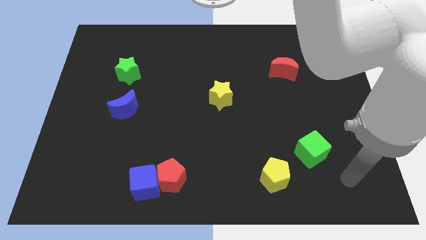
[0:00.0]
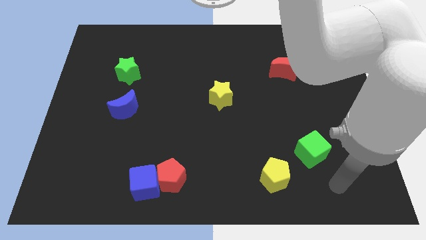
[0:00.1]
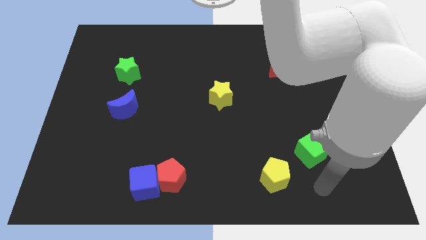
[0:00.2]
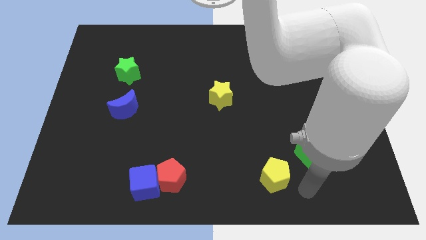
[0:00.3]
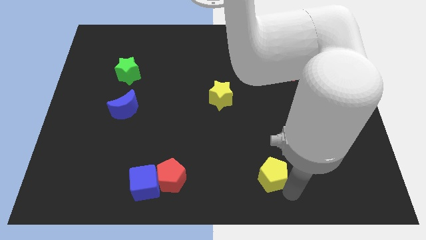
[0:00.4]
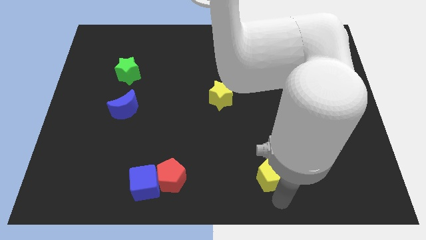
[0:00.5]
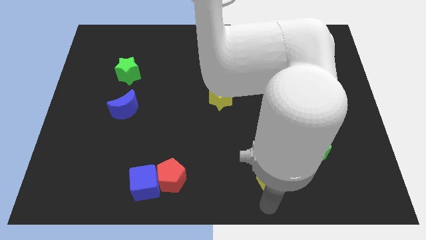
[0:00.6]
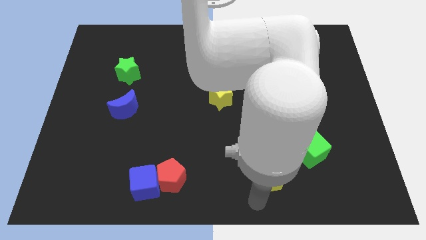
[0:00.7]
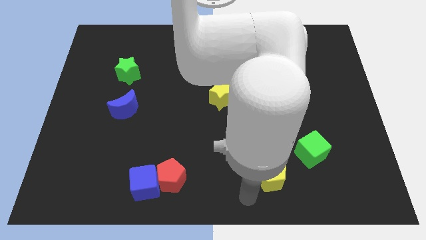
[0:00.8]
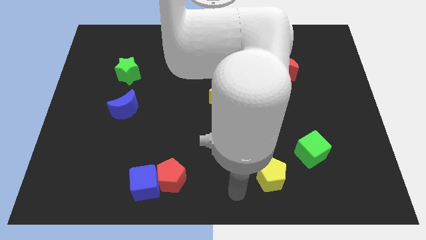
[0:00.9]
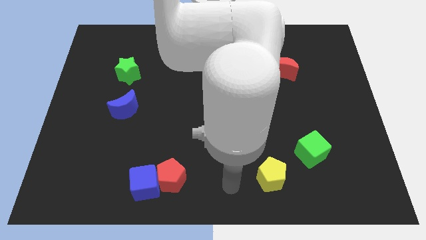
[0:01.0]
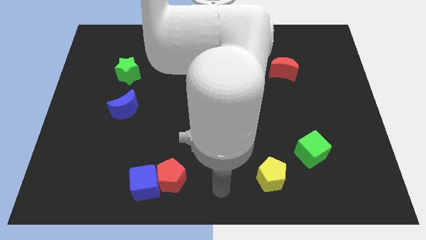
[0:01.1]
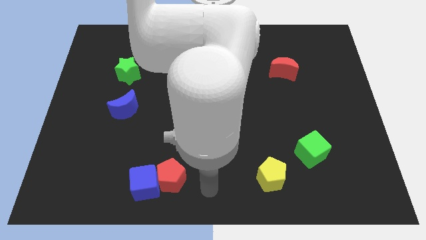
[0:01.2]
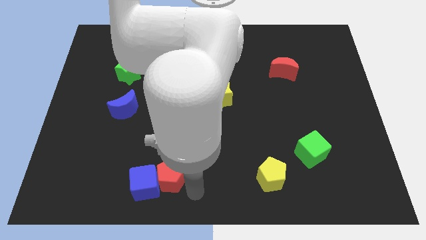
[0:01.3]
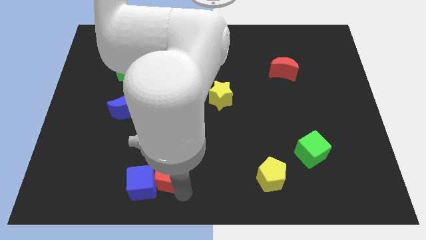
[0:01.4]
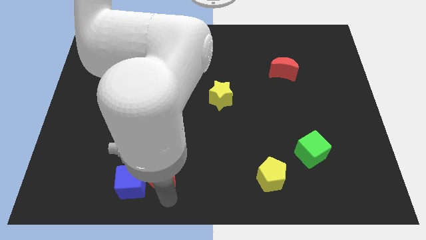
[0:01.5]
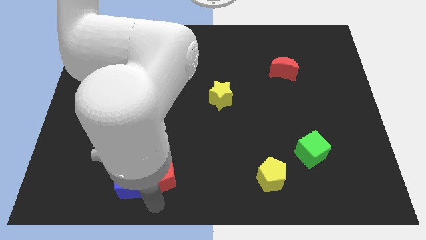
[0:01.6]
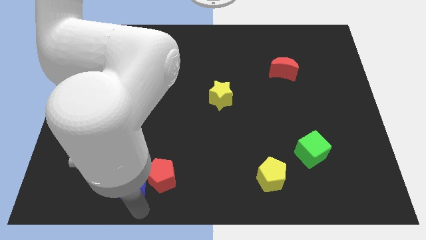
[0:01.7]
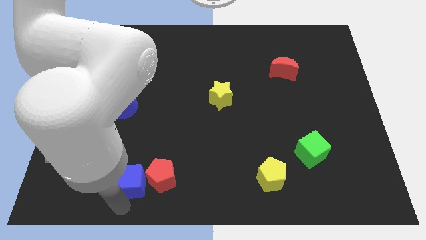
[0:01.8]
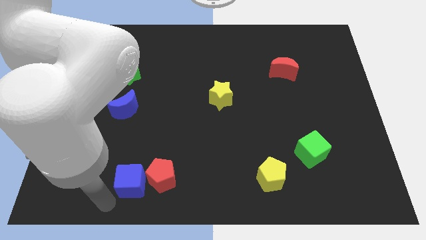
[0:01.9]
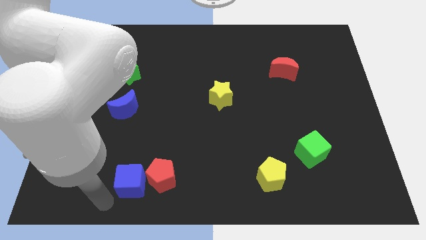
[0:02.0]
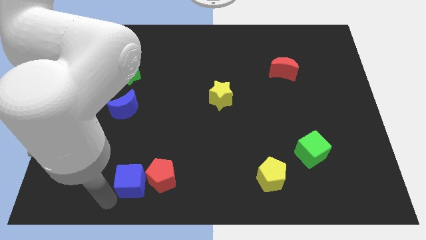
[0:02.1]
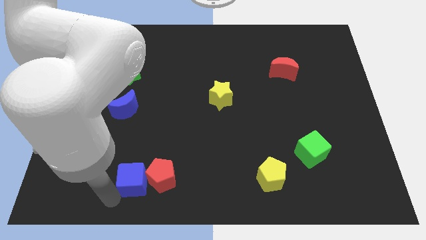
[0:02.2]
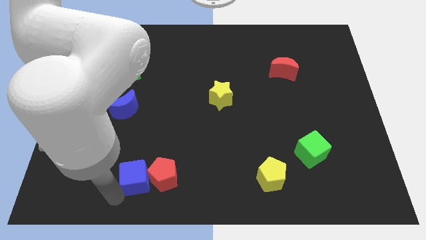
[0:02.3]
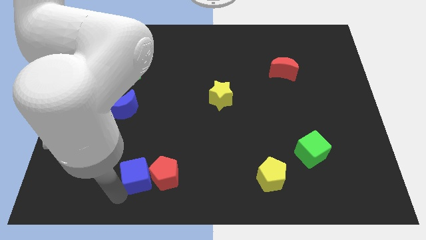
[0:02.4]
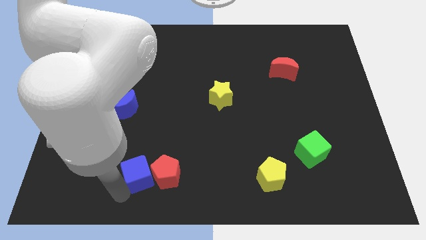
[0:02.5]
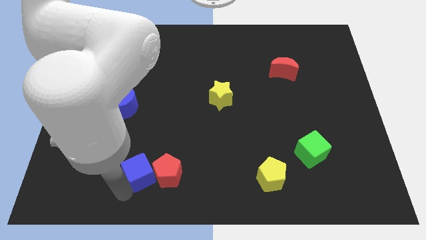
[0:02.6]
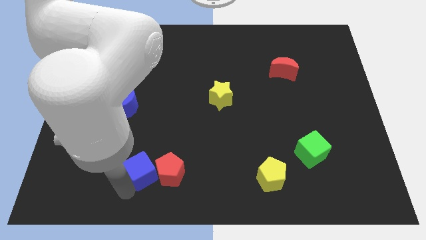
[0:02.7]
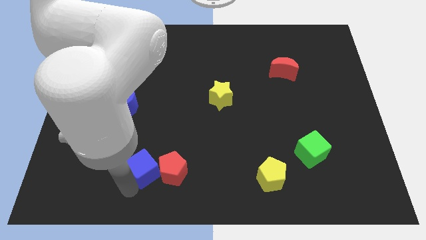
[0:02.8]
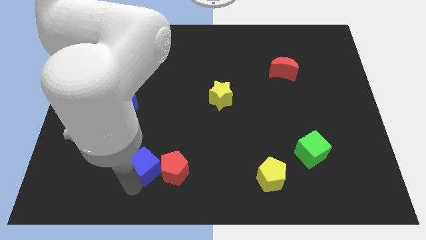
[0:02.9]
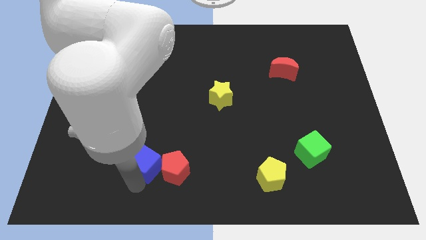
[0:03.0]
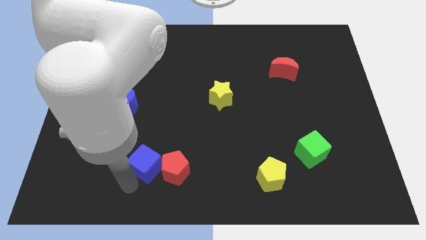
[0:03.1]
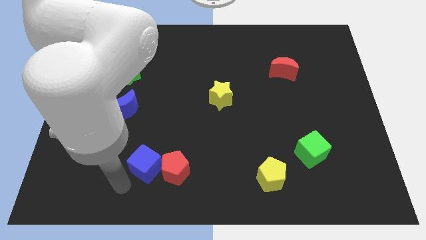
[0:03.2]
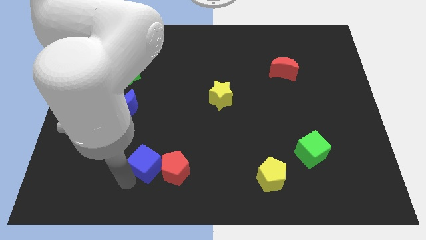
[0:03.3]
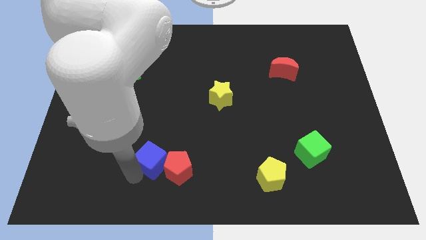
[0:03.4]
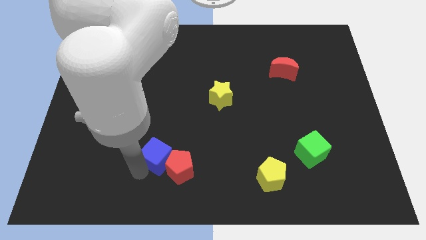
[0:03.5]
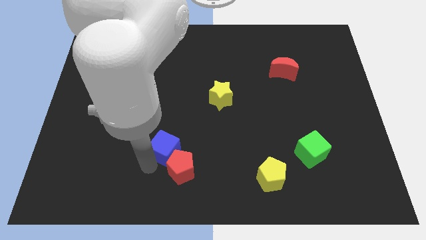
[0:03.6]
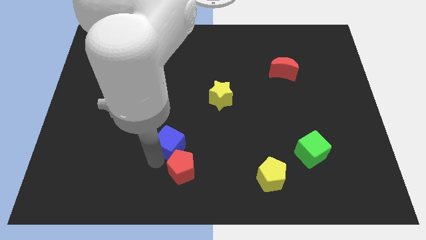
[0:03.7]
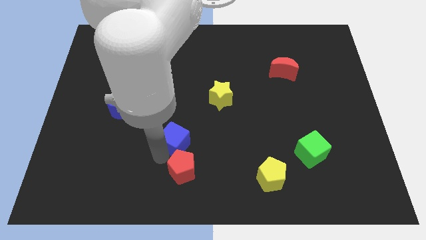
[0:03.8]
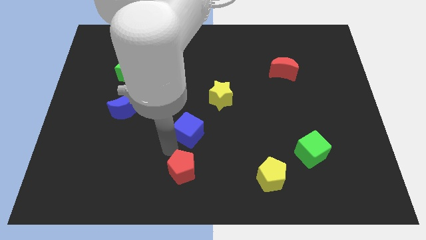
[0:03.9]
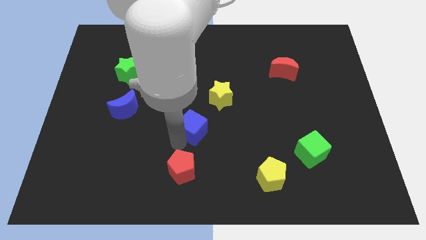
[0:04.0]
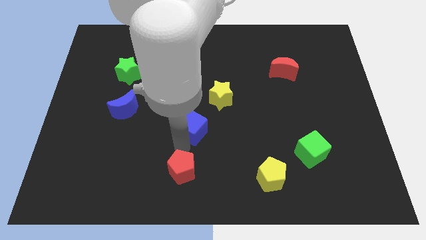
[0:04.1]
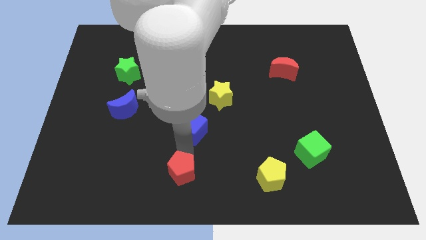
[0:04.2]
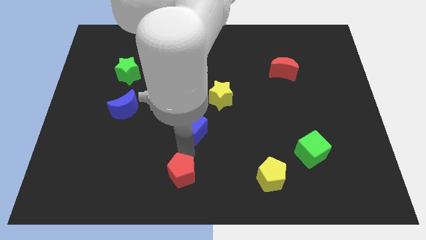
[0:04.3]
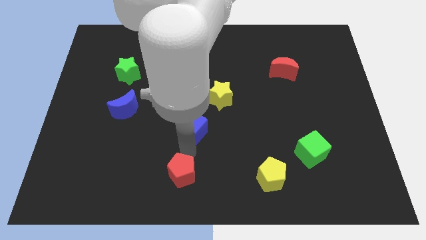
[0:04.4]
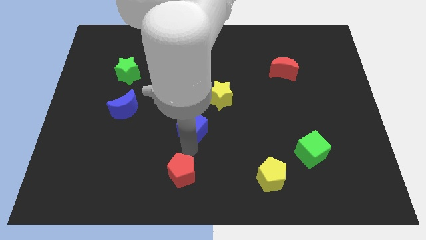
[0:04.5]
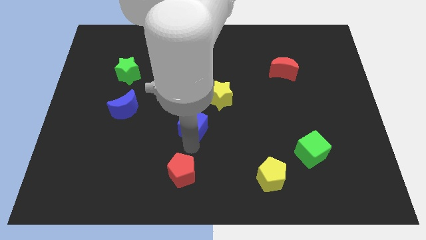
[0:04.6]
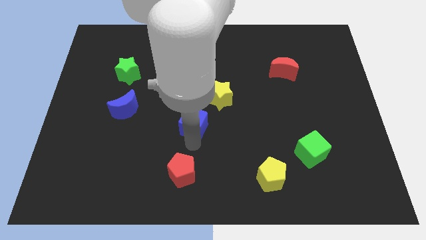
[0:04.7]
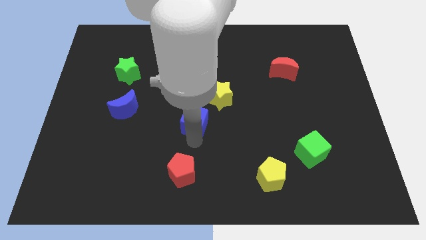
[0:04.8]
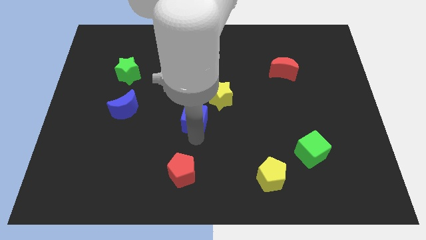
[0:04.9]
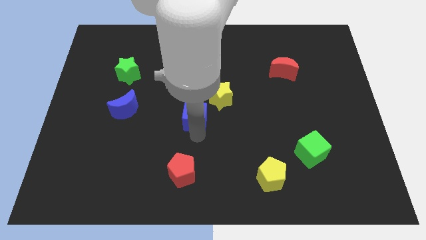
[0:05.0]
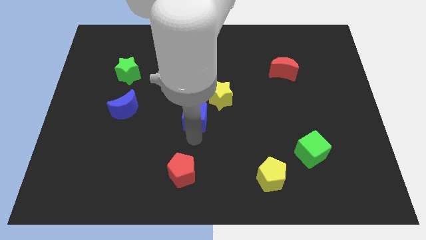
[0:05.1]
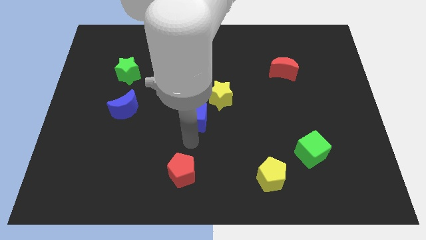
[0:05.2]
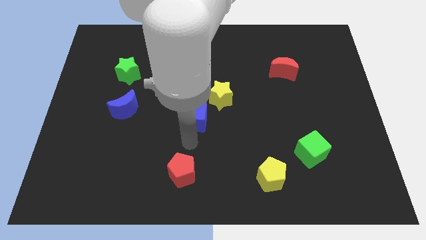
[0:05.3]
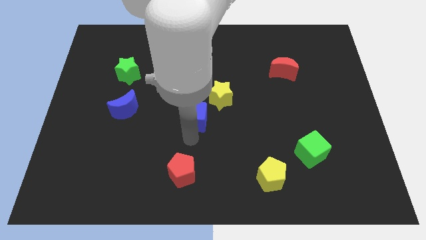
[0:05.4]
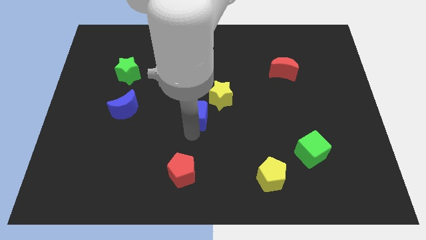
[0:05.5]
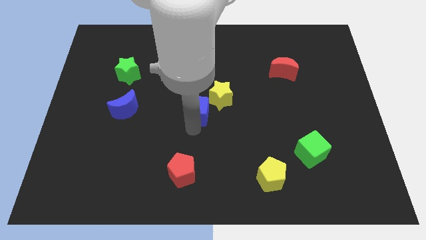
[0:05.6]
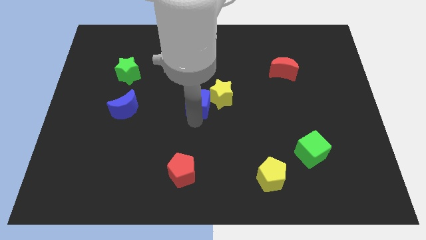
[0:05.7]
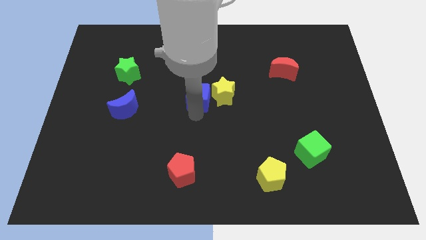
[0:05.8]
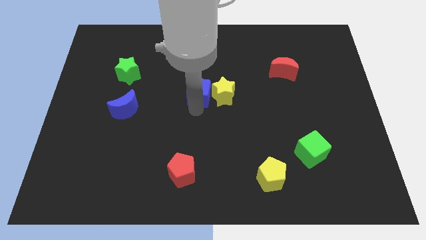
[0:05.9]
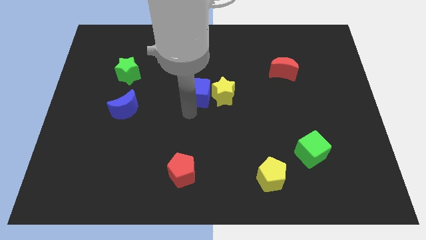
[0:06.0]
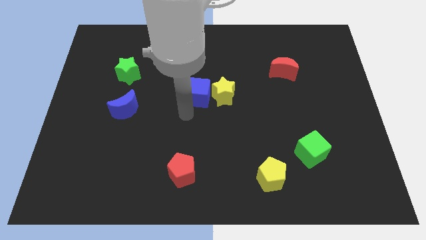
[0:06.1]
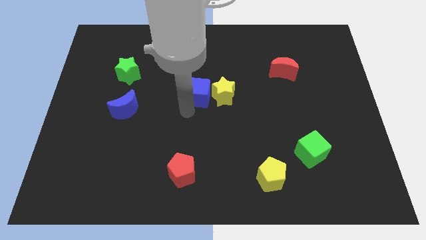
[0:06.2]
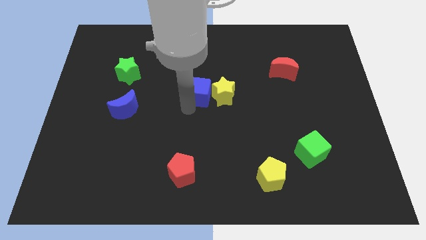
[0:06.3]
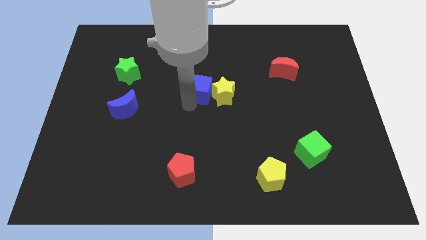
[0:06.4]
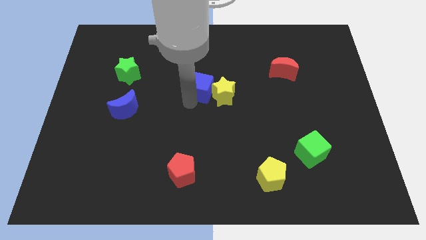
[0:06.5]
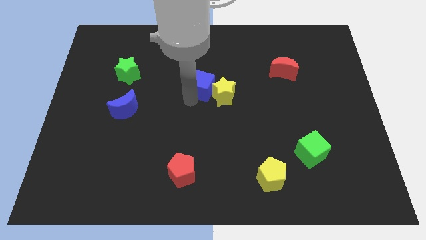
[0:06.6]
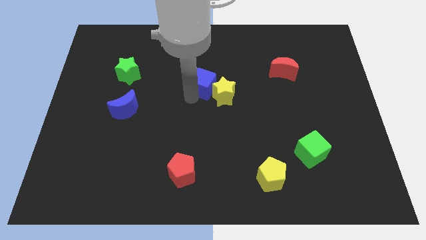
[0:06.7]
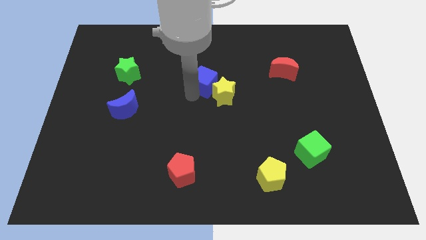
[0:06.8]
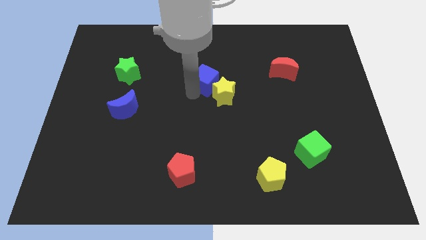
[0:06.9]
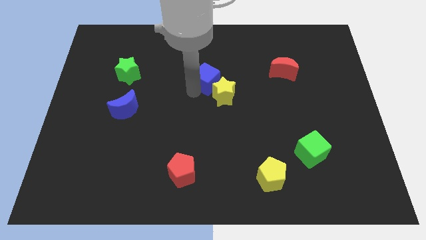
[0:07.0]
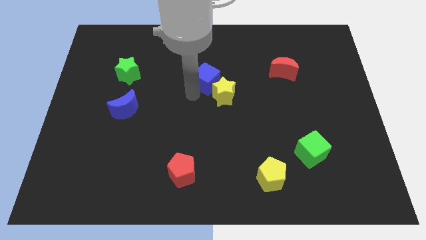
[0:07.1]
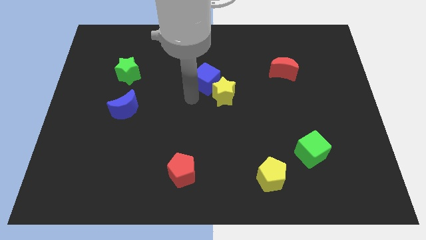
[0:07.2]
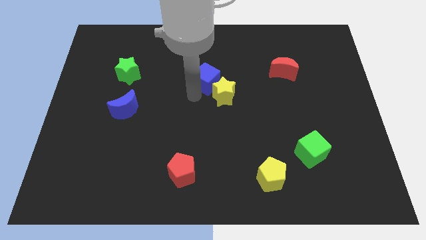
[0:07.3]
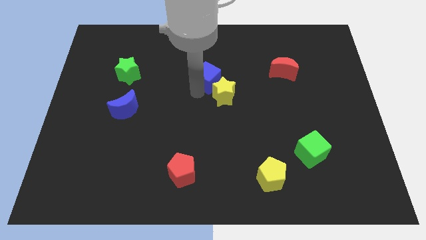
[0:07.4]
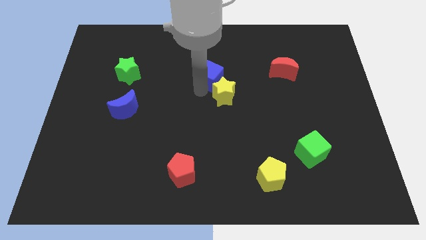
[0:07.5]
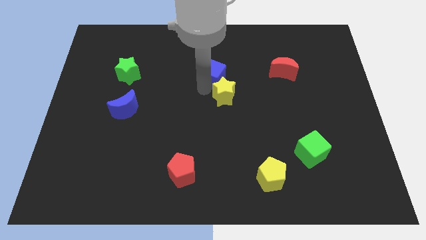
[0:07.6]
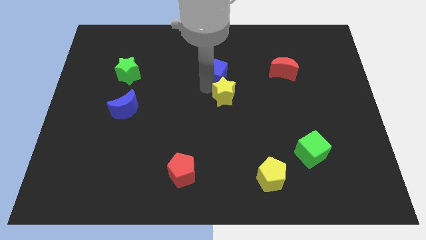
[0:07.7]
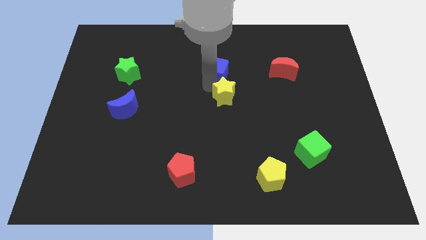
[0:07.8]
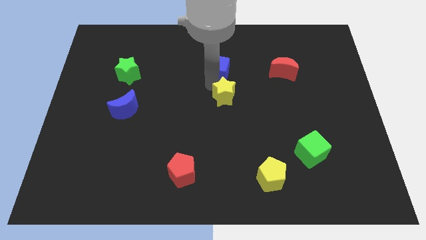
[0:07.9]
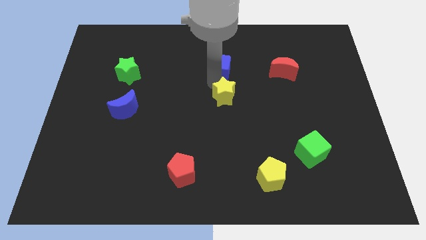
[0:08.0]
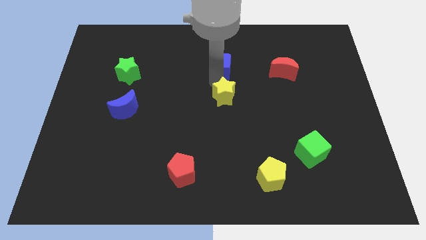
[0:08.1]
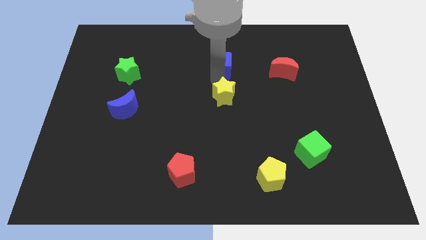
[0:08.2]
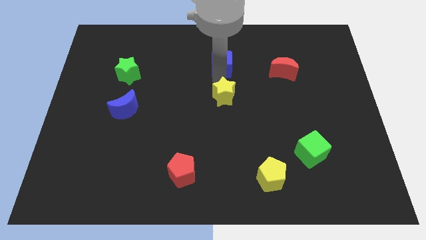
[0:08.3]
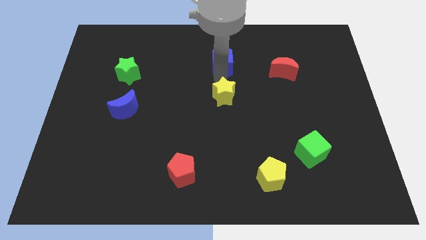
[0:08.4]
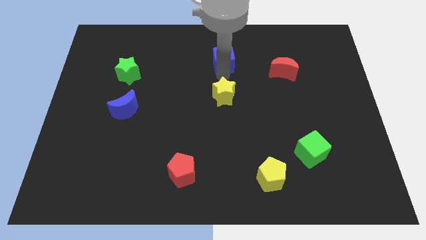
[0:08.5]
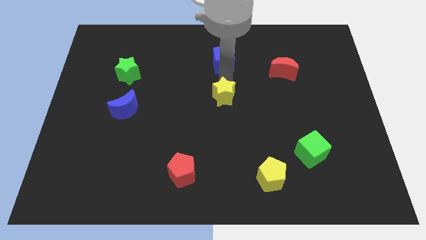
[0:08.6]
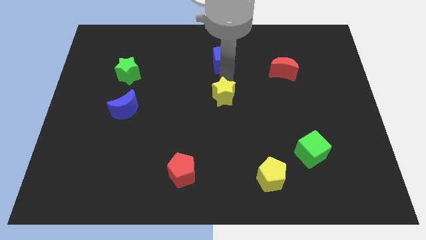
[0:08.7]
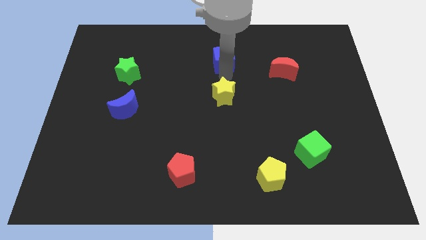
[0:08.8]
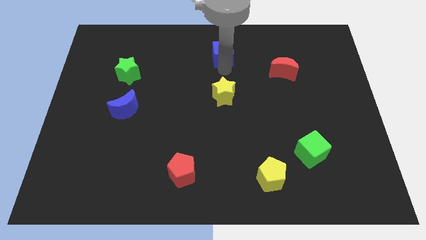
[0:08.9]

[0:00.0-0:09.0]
slide the blue cube to the towards your base
